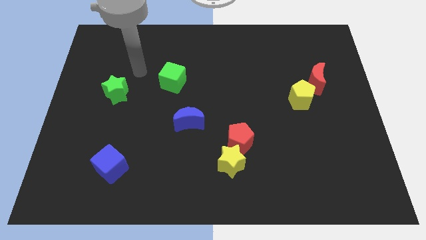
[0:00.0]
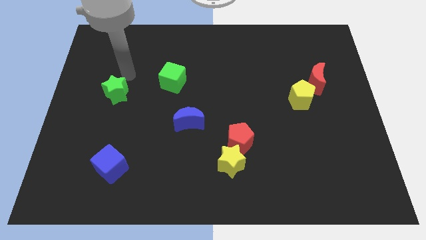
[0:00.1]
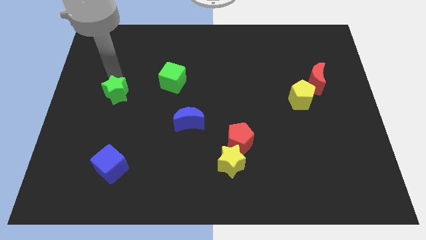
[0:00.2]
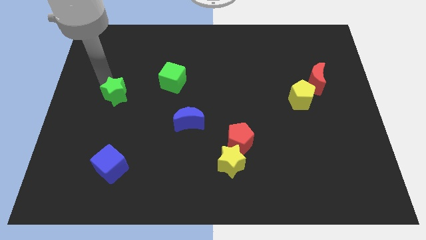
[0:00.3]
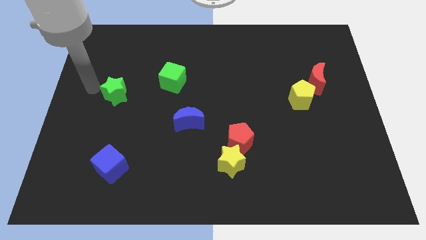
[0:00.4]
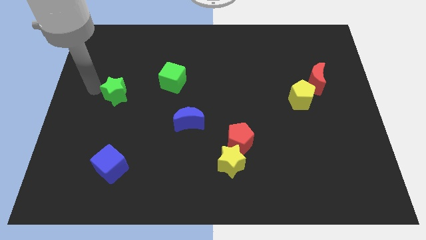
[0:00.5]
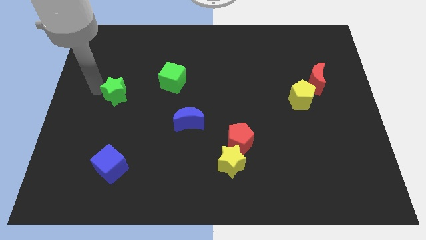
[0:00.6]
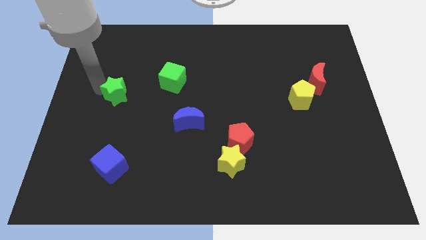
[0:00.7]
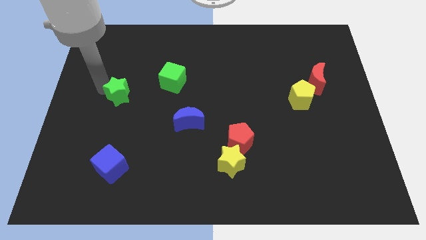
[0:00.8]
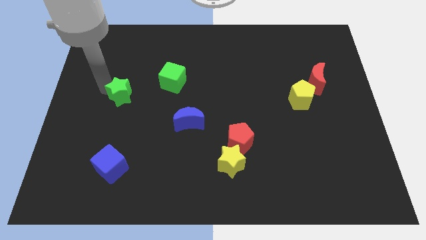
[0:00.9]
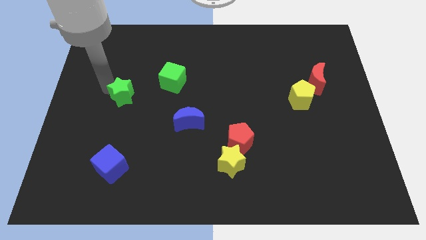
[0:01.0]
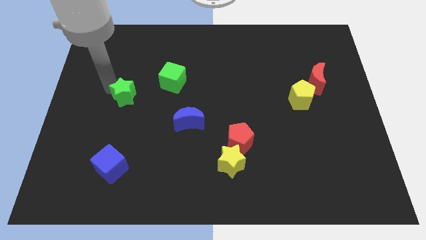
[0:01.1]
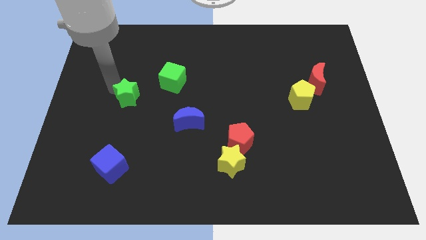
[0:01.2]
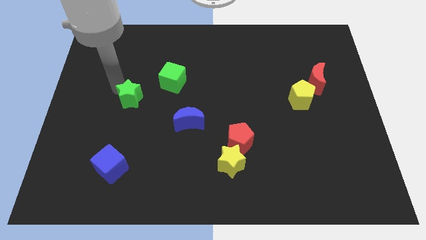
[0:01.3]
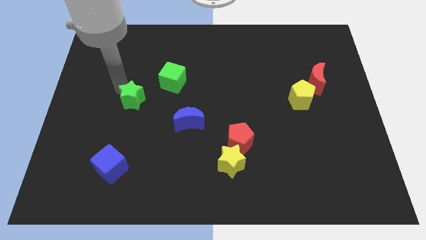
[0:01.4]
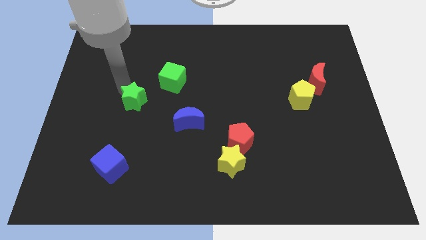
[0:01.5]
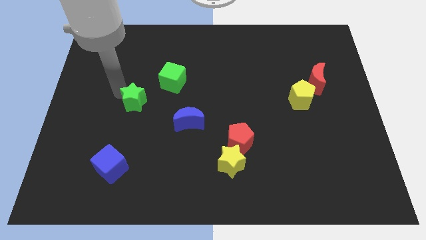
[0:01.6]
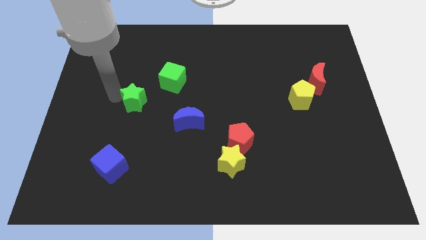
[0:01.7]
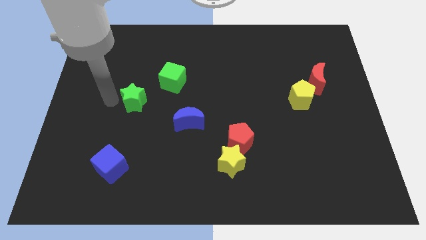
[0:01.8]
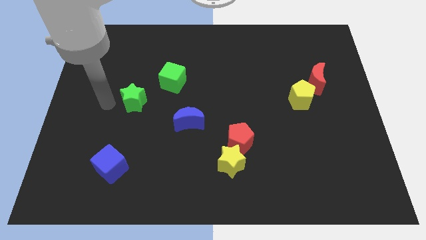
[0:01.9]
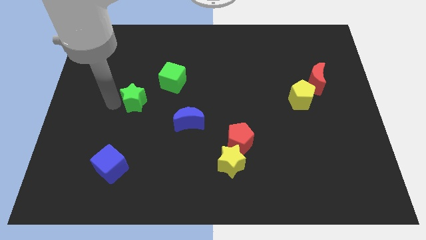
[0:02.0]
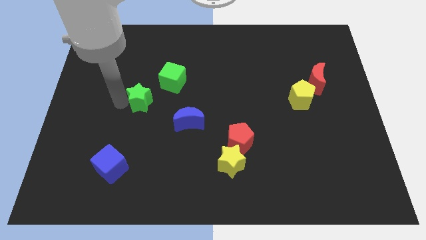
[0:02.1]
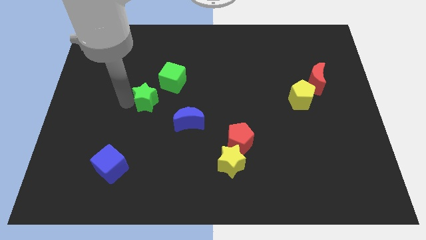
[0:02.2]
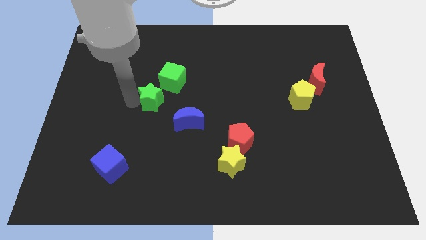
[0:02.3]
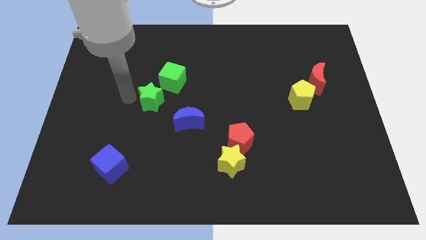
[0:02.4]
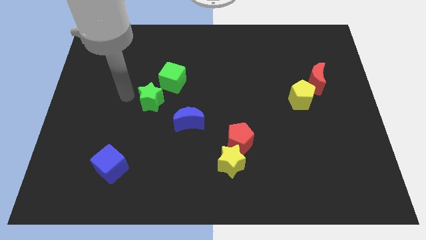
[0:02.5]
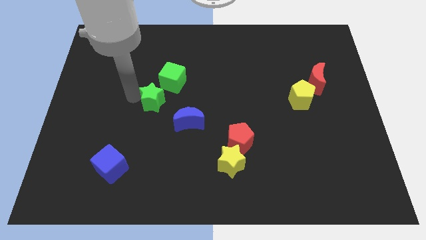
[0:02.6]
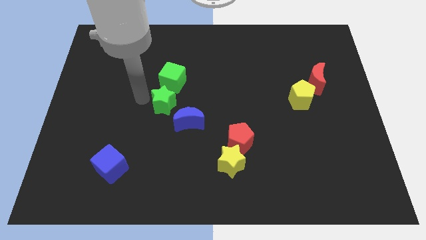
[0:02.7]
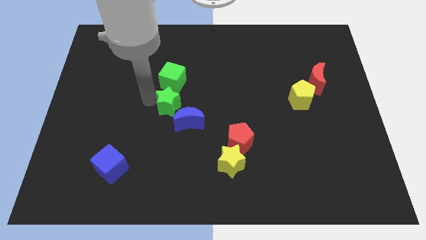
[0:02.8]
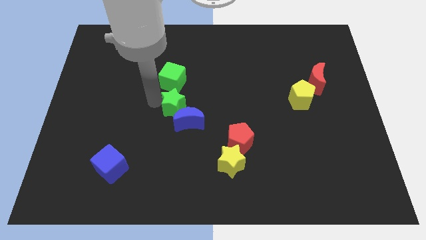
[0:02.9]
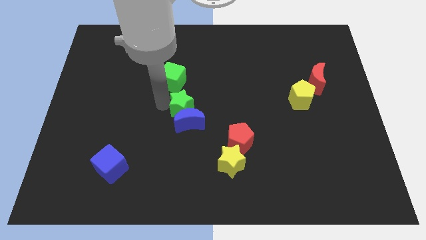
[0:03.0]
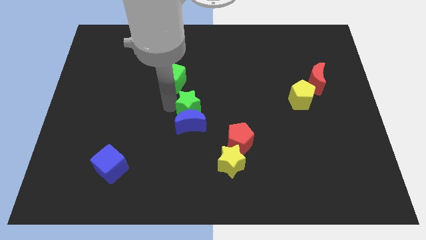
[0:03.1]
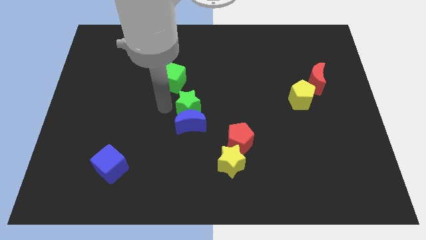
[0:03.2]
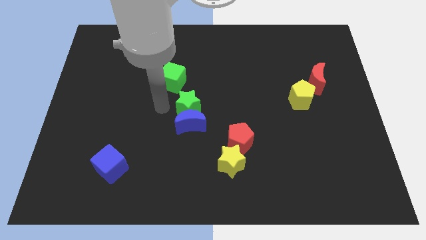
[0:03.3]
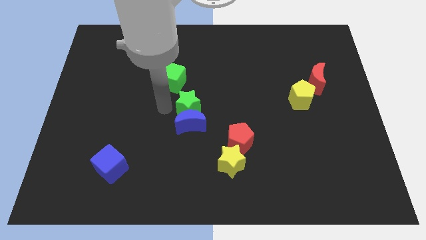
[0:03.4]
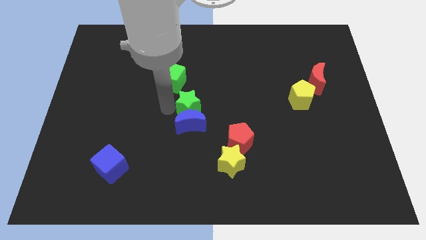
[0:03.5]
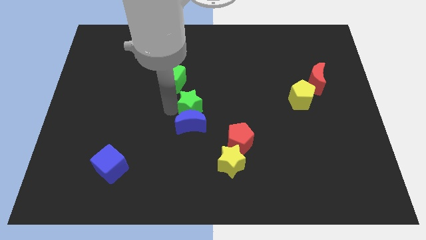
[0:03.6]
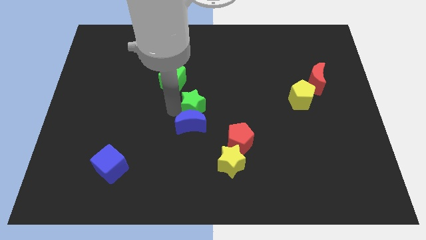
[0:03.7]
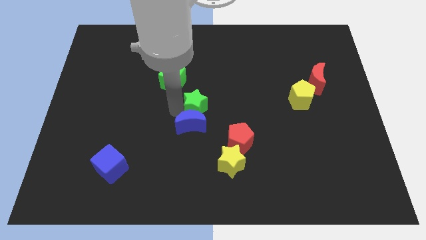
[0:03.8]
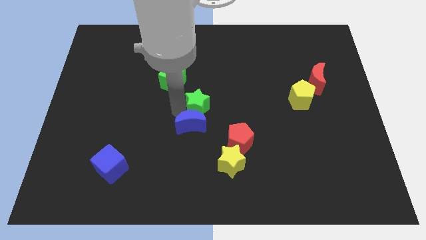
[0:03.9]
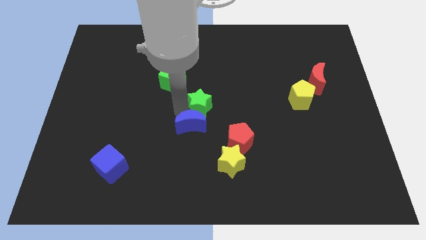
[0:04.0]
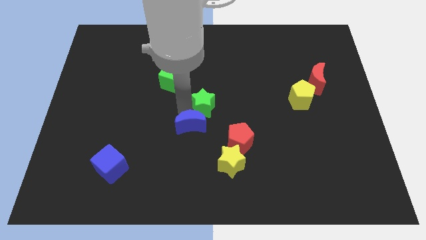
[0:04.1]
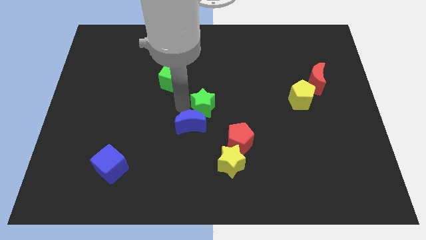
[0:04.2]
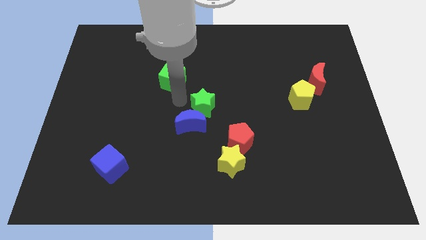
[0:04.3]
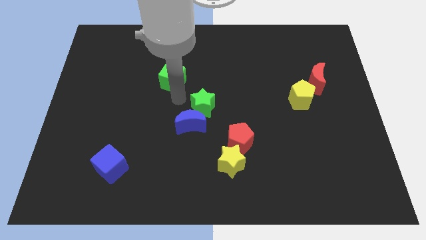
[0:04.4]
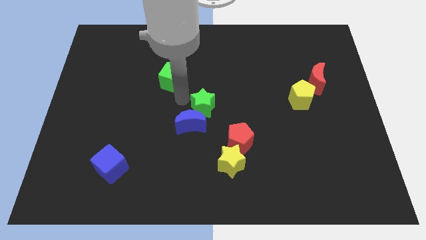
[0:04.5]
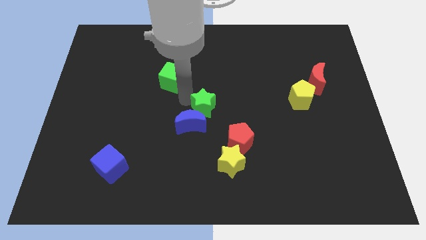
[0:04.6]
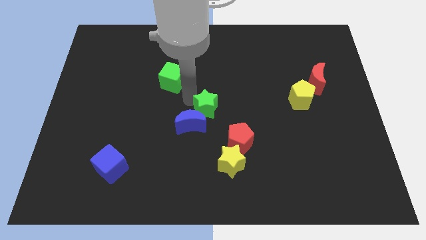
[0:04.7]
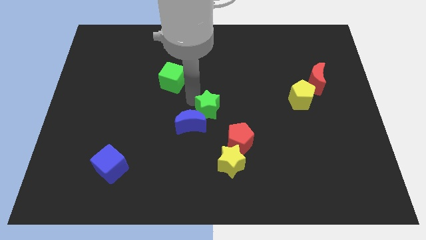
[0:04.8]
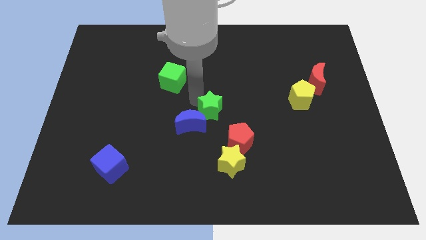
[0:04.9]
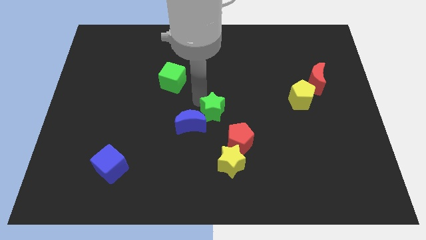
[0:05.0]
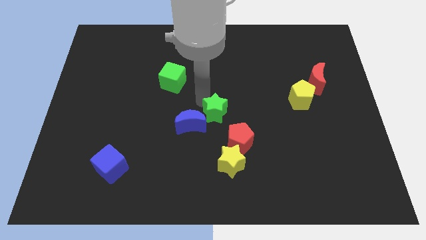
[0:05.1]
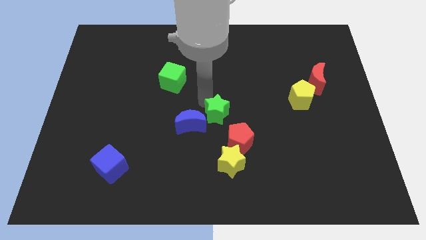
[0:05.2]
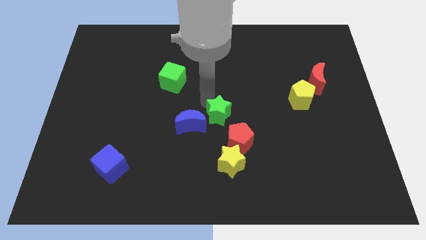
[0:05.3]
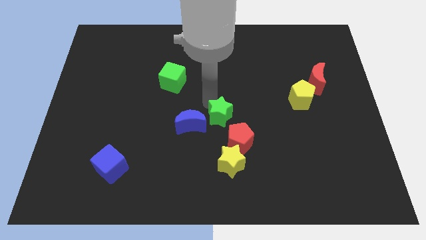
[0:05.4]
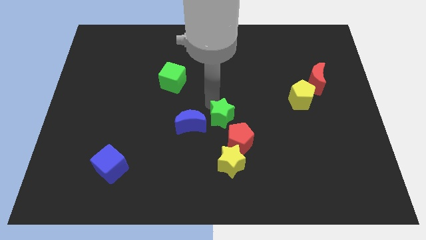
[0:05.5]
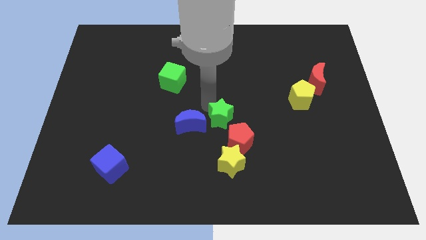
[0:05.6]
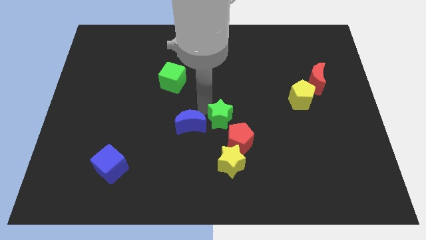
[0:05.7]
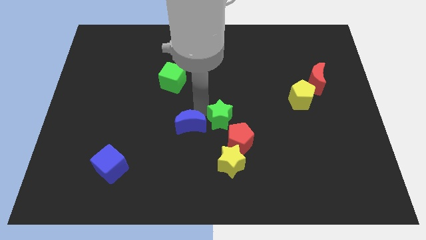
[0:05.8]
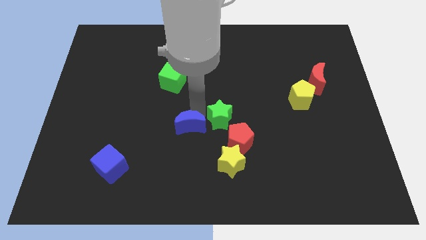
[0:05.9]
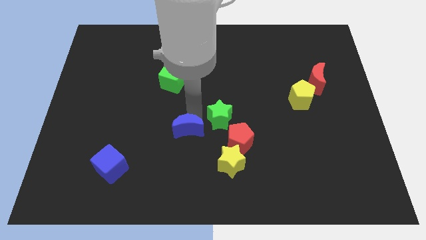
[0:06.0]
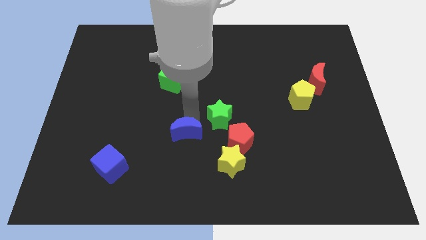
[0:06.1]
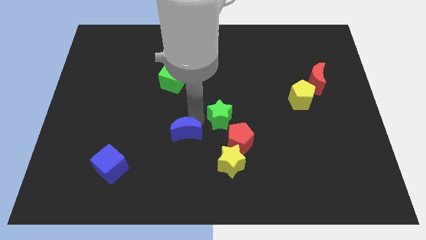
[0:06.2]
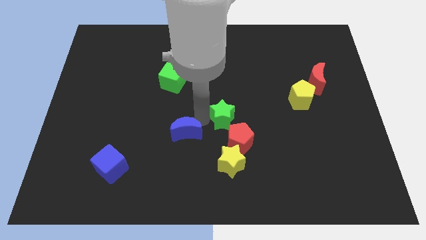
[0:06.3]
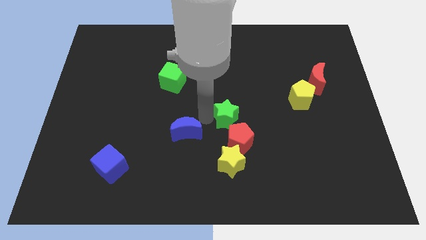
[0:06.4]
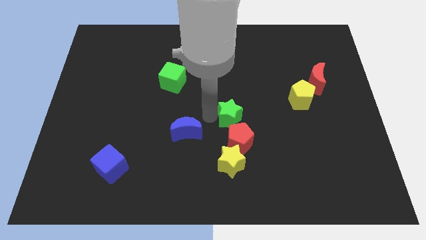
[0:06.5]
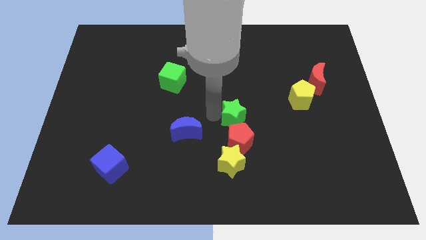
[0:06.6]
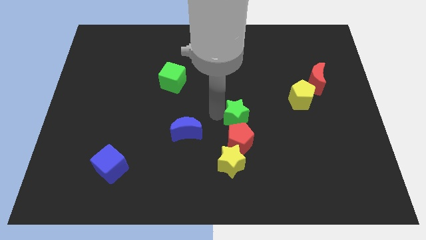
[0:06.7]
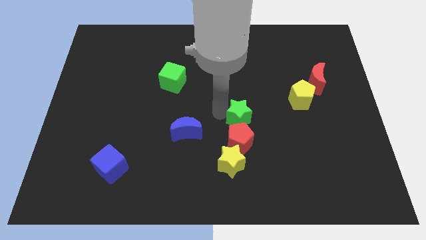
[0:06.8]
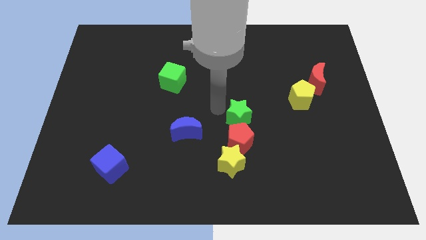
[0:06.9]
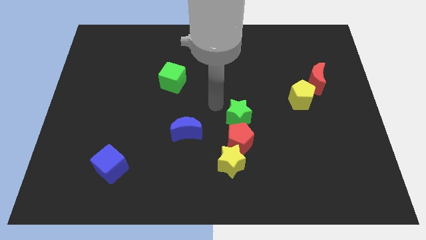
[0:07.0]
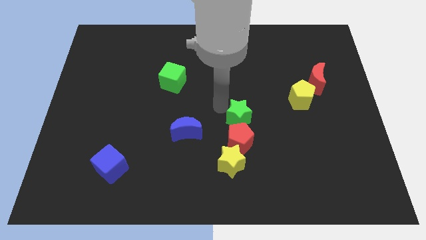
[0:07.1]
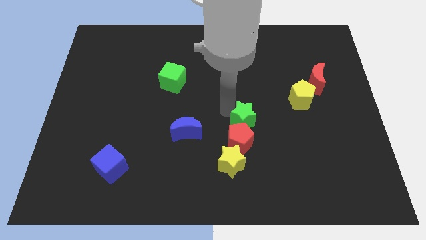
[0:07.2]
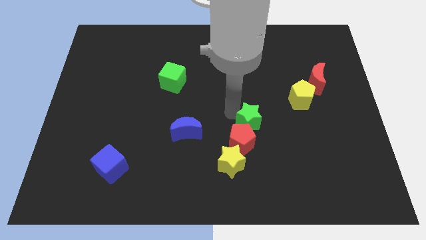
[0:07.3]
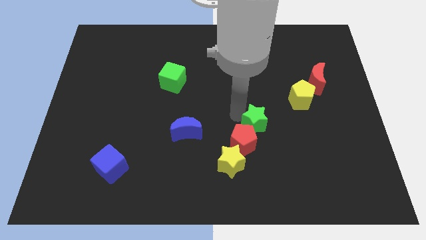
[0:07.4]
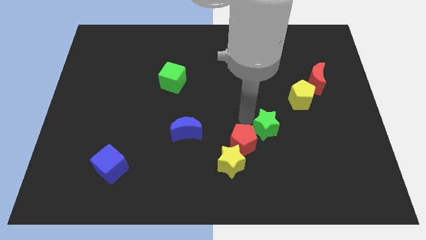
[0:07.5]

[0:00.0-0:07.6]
slide the green star to the right side of the red pentagon
